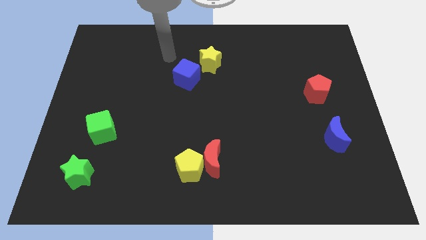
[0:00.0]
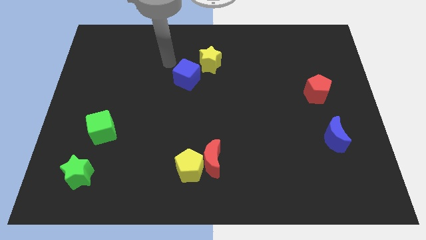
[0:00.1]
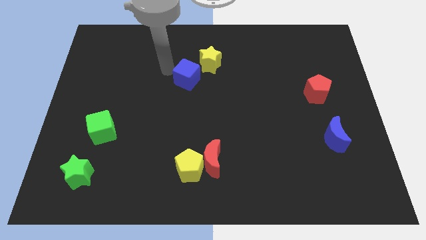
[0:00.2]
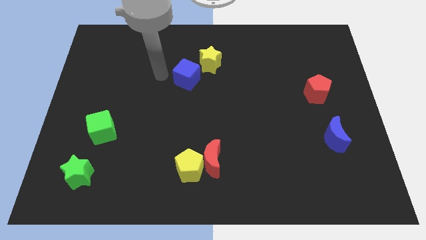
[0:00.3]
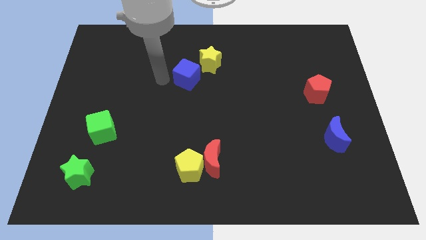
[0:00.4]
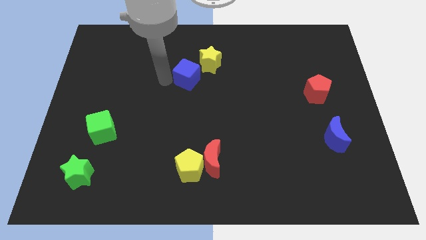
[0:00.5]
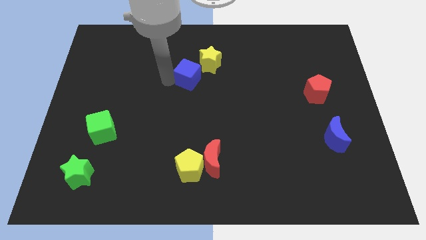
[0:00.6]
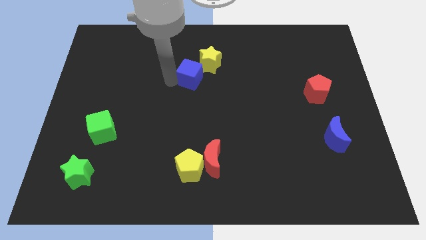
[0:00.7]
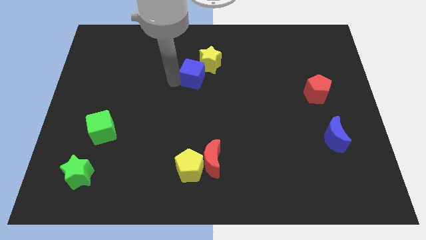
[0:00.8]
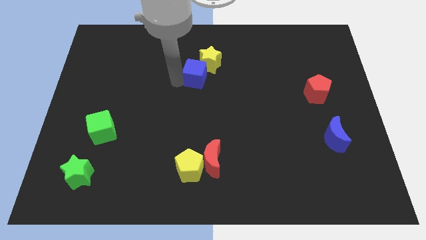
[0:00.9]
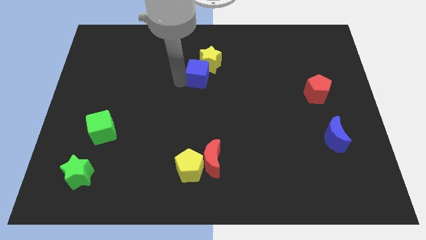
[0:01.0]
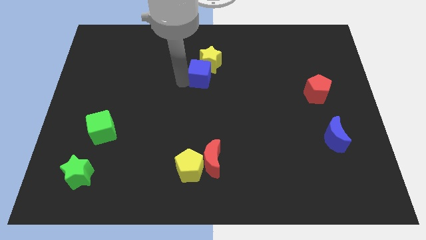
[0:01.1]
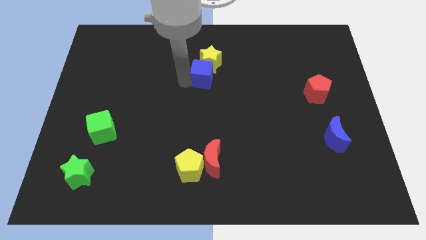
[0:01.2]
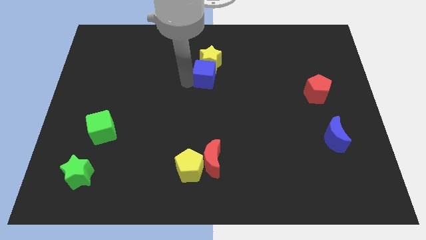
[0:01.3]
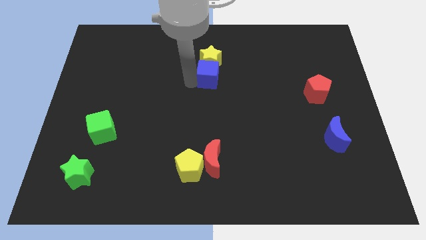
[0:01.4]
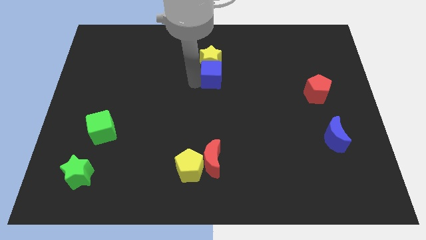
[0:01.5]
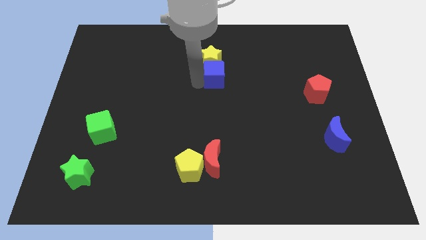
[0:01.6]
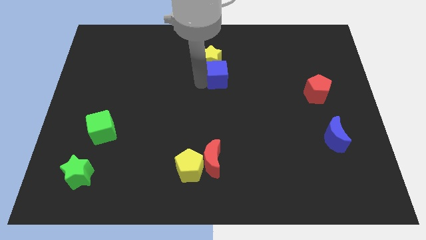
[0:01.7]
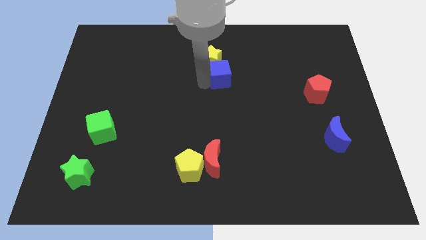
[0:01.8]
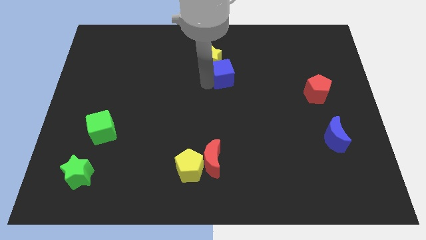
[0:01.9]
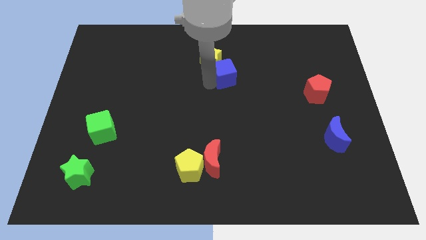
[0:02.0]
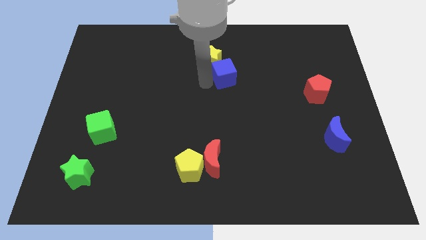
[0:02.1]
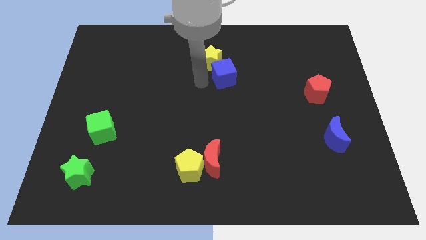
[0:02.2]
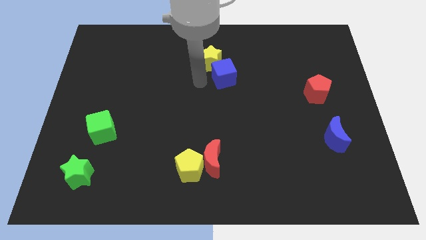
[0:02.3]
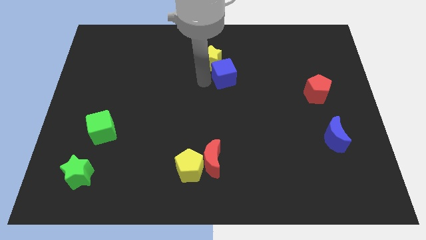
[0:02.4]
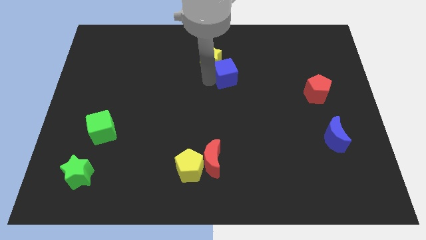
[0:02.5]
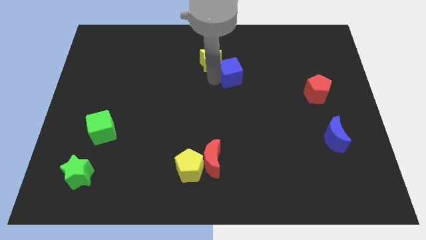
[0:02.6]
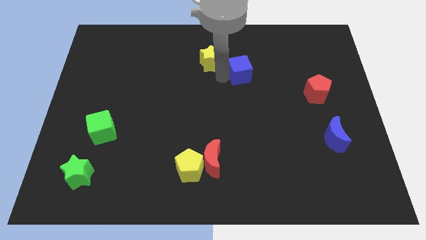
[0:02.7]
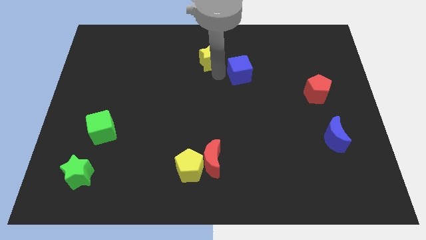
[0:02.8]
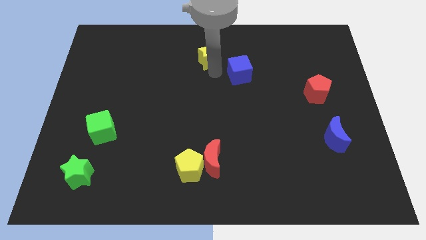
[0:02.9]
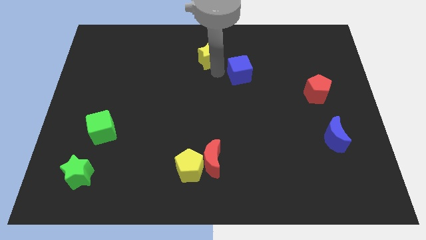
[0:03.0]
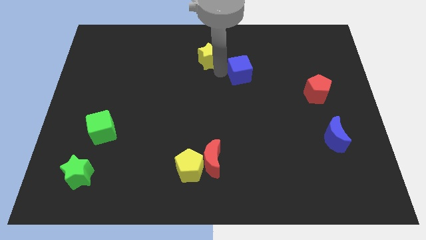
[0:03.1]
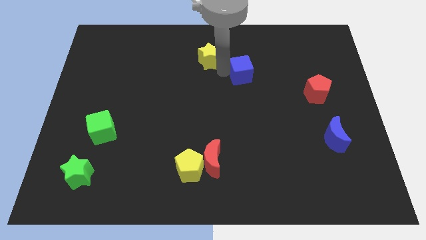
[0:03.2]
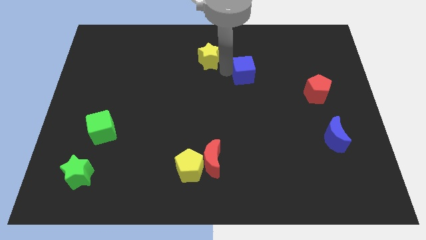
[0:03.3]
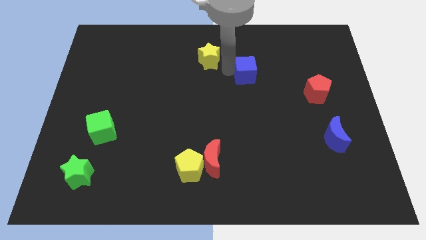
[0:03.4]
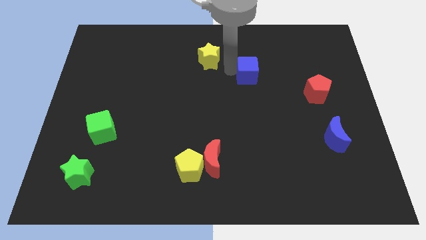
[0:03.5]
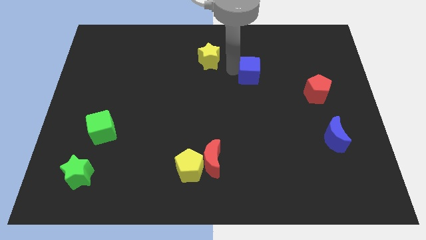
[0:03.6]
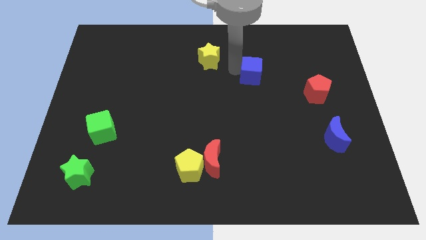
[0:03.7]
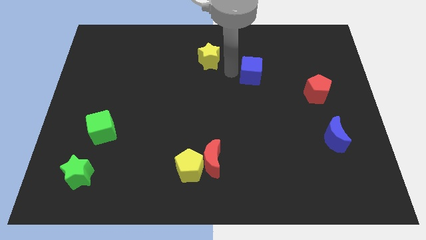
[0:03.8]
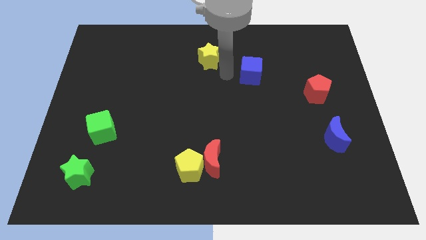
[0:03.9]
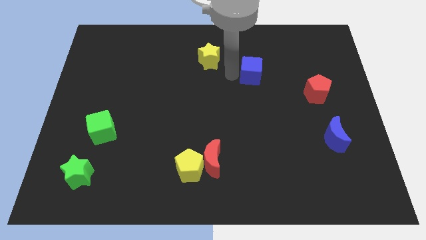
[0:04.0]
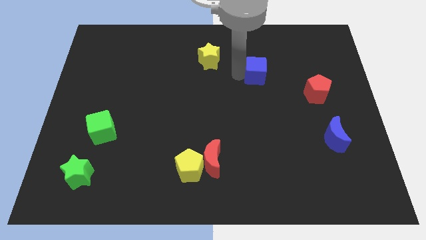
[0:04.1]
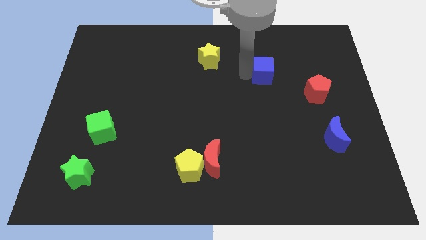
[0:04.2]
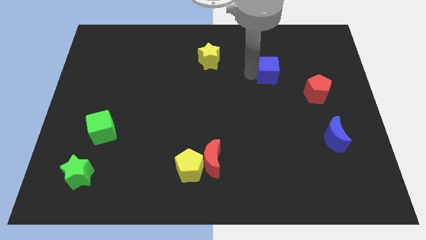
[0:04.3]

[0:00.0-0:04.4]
move the blue cube right

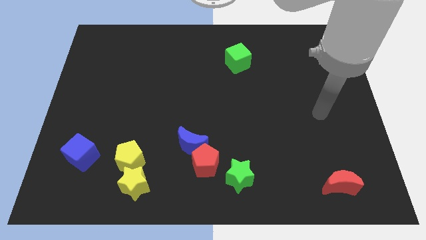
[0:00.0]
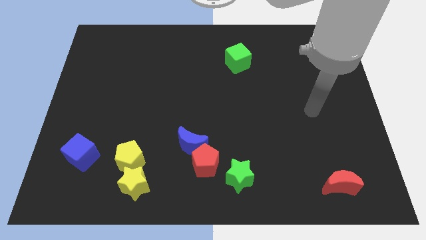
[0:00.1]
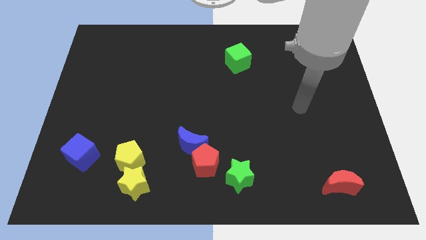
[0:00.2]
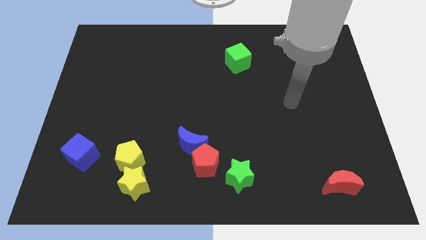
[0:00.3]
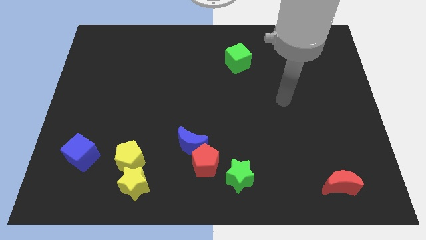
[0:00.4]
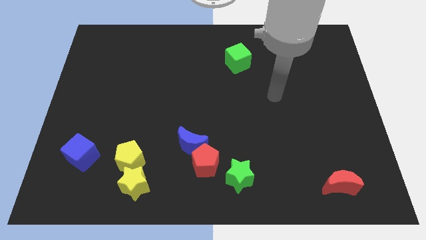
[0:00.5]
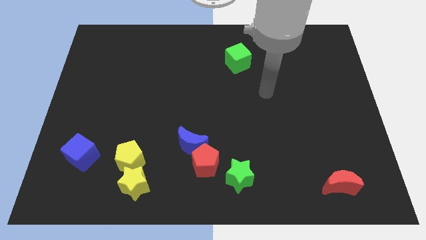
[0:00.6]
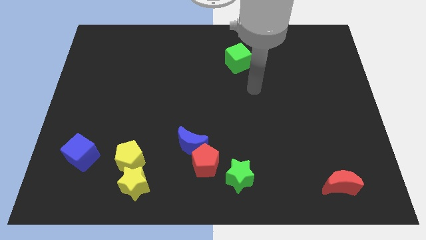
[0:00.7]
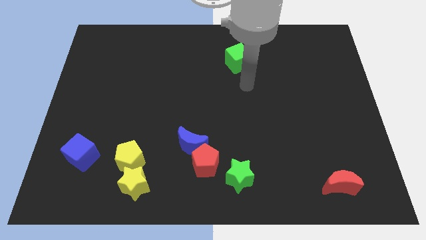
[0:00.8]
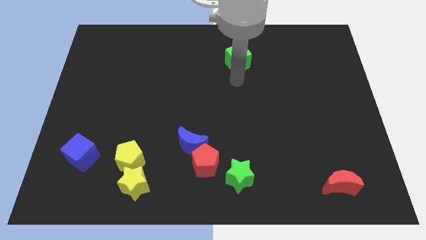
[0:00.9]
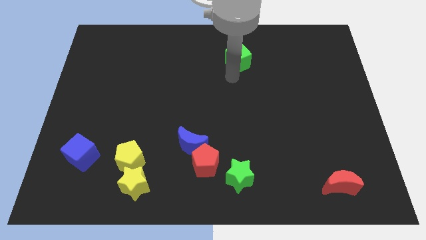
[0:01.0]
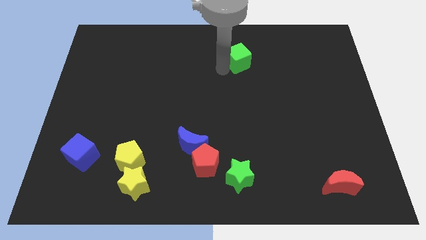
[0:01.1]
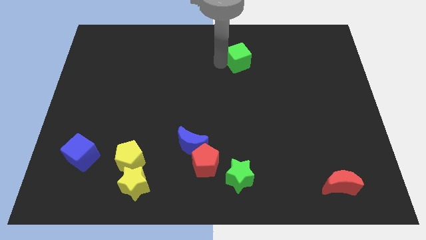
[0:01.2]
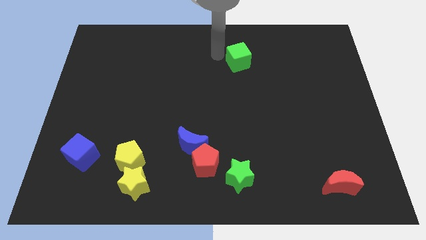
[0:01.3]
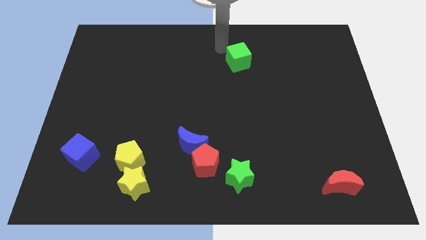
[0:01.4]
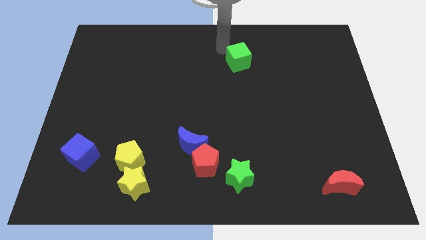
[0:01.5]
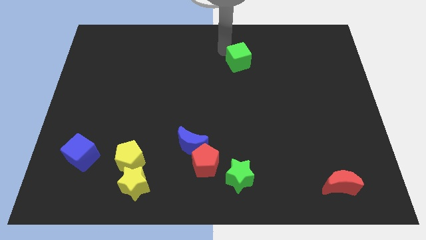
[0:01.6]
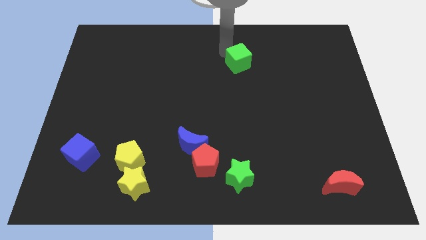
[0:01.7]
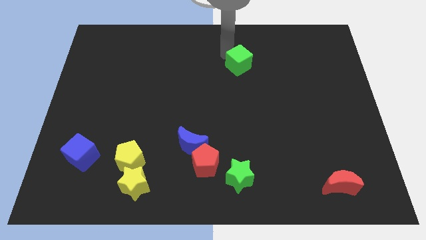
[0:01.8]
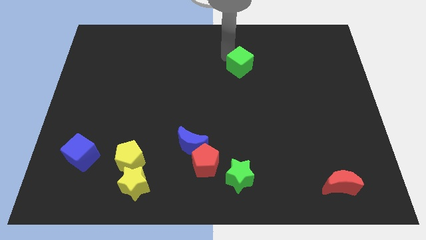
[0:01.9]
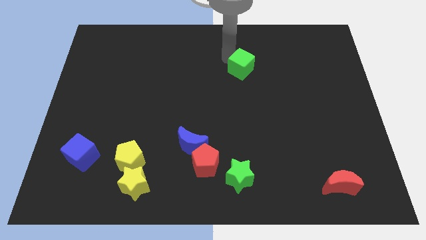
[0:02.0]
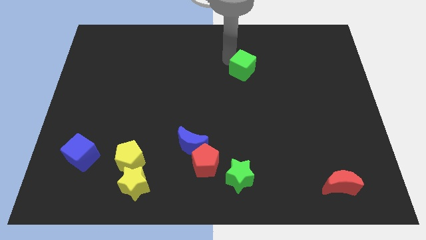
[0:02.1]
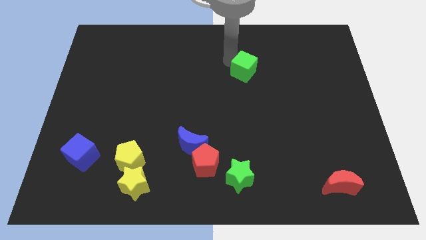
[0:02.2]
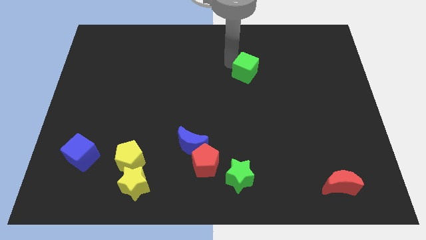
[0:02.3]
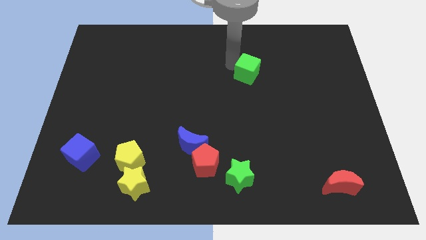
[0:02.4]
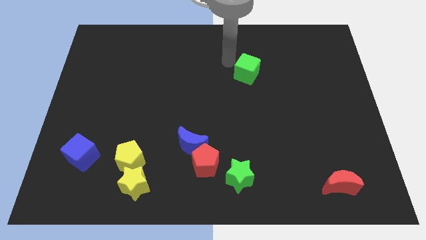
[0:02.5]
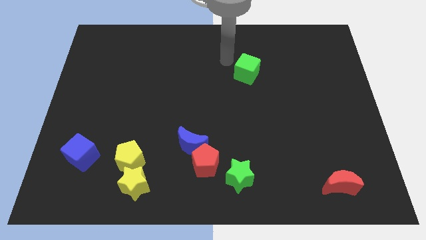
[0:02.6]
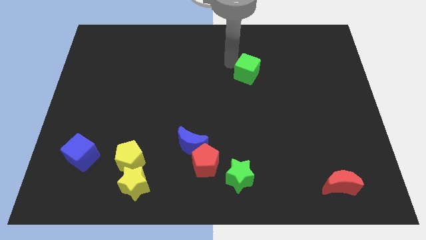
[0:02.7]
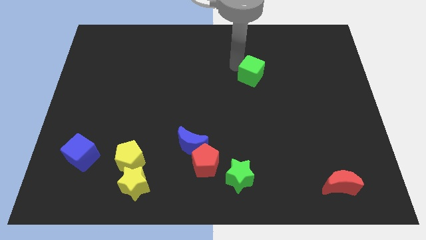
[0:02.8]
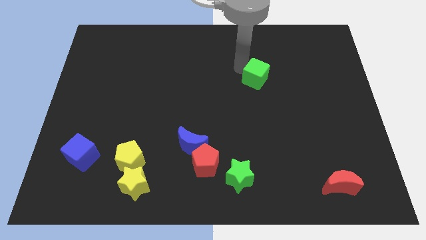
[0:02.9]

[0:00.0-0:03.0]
slide the green cube downwards and then right slightly

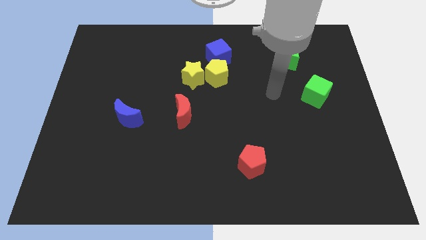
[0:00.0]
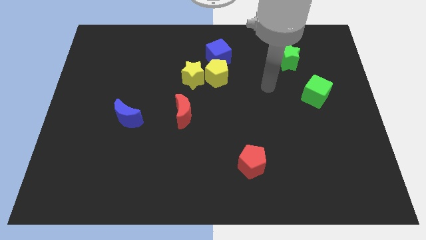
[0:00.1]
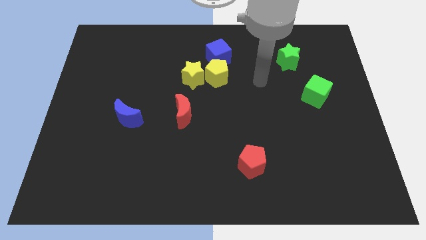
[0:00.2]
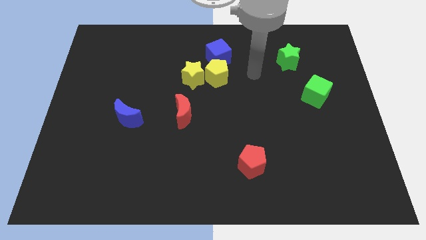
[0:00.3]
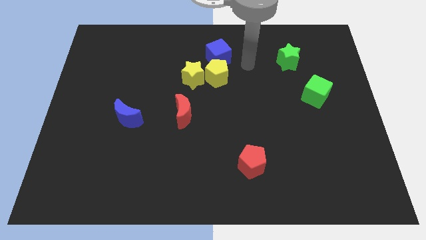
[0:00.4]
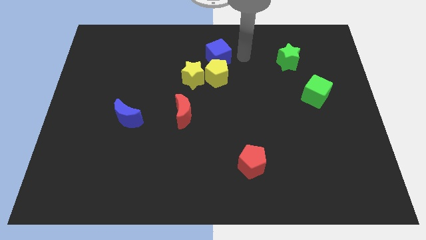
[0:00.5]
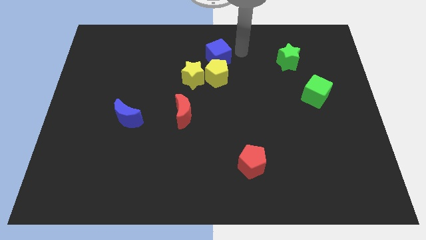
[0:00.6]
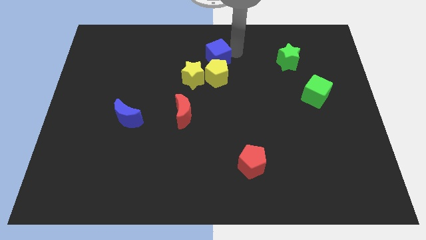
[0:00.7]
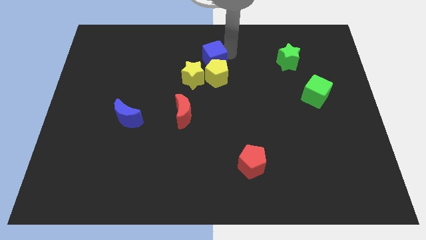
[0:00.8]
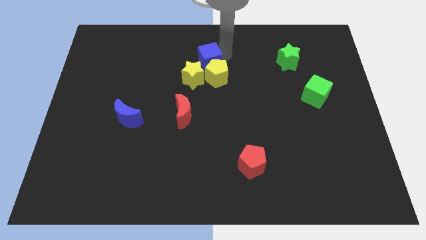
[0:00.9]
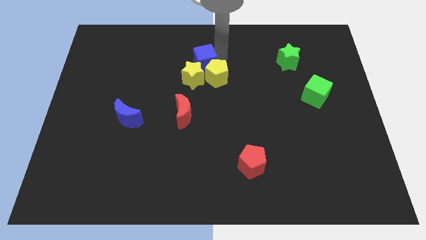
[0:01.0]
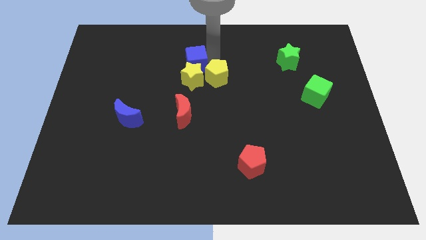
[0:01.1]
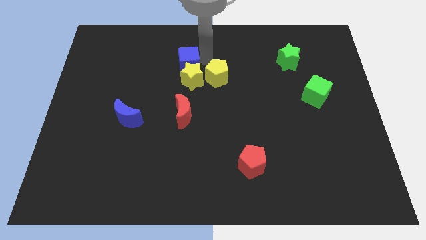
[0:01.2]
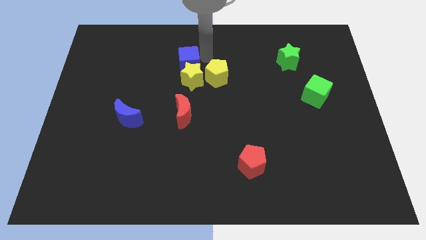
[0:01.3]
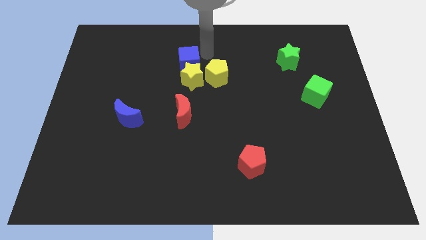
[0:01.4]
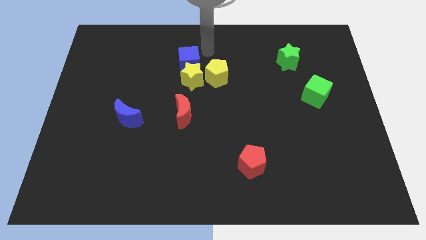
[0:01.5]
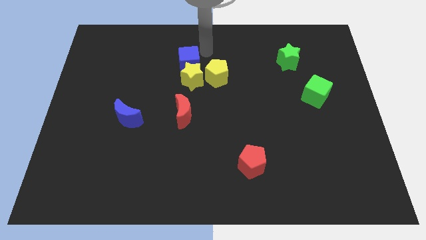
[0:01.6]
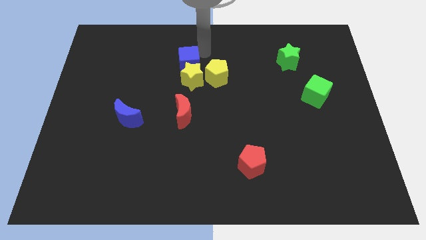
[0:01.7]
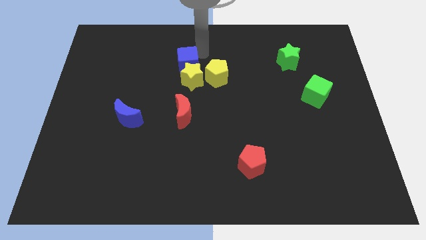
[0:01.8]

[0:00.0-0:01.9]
slightly push the blue cube diagonally down and left
